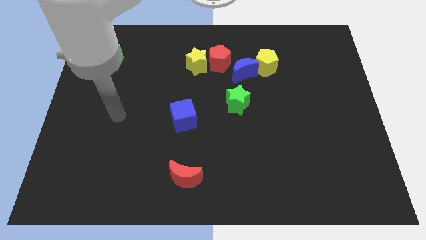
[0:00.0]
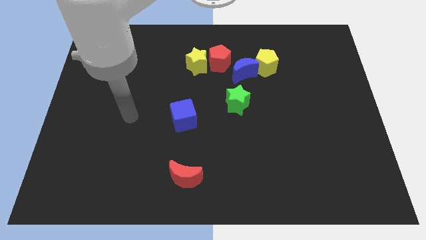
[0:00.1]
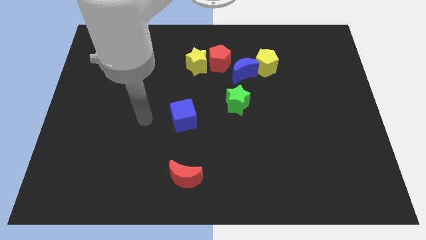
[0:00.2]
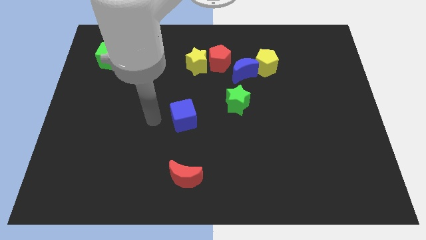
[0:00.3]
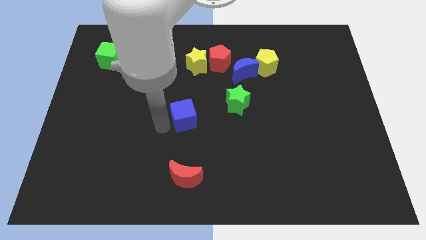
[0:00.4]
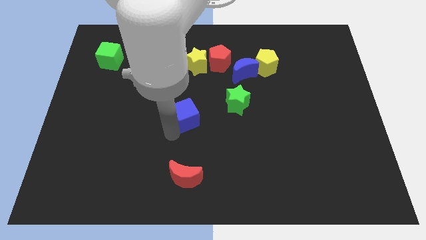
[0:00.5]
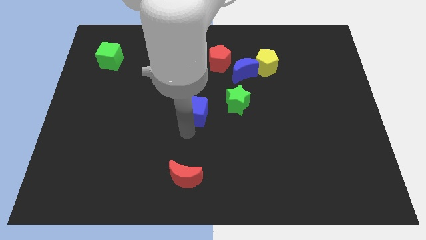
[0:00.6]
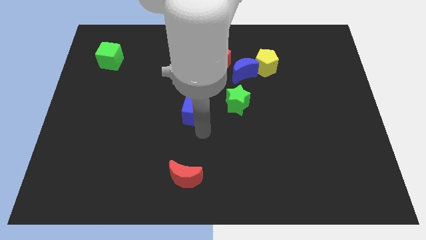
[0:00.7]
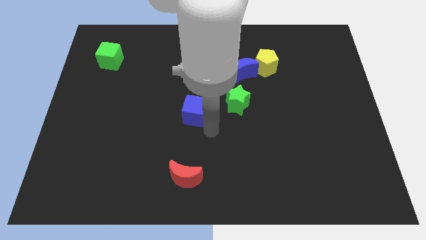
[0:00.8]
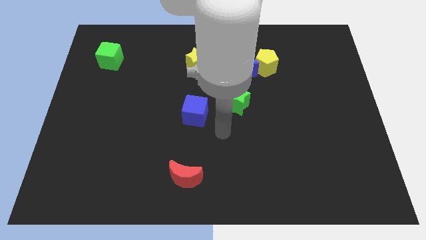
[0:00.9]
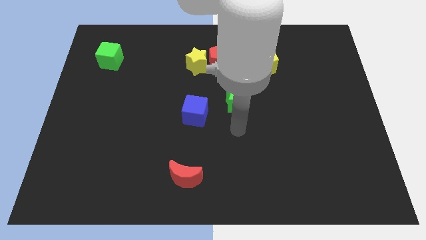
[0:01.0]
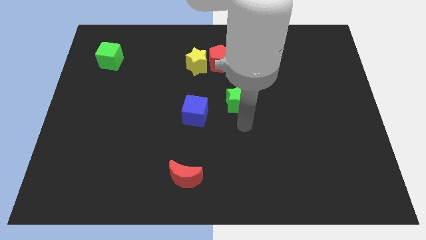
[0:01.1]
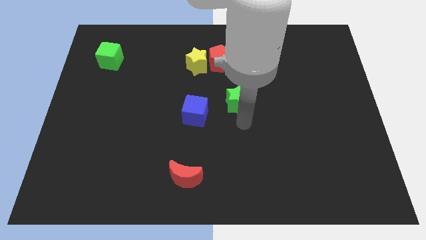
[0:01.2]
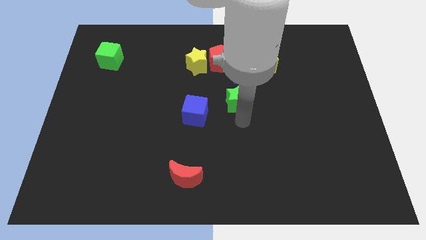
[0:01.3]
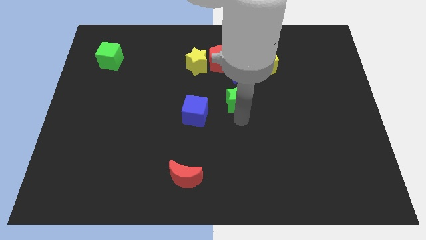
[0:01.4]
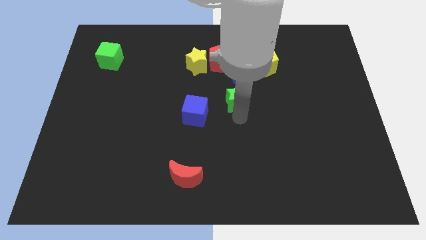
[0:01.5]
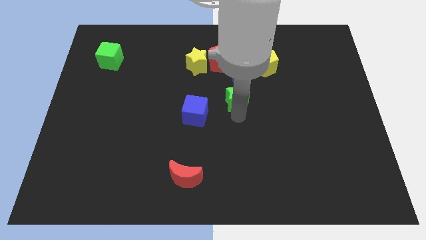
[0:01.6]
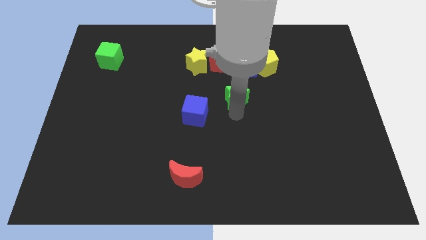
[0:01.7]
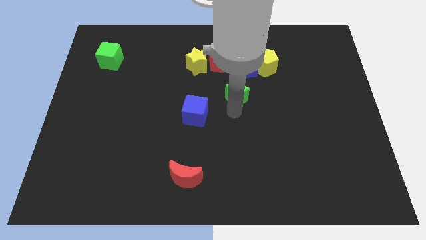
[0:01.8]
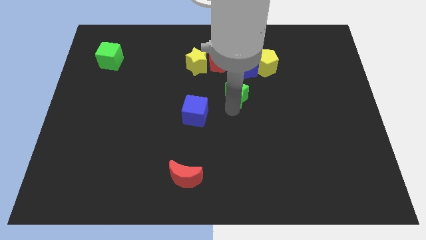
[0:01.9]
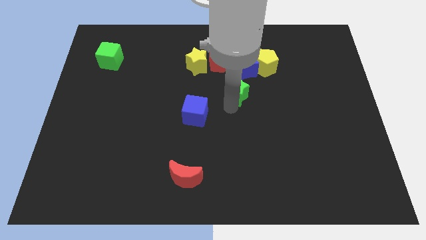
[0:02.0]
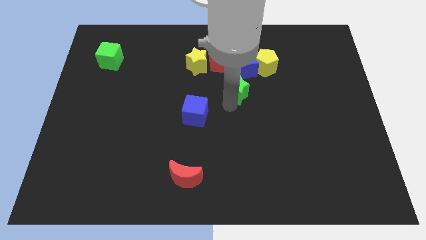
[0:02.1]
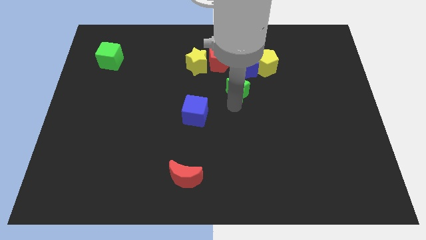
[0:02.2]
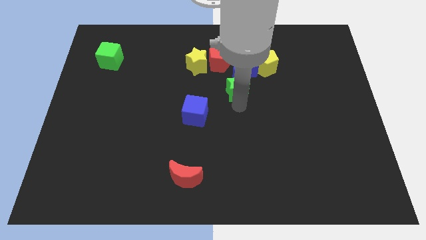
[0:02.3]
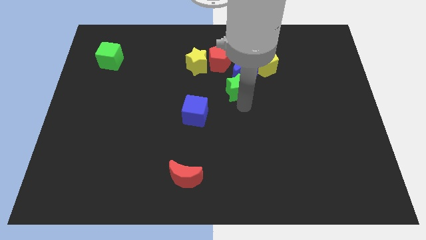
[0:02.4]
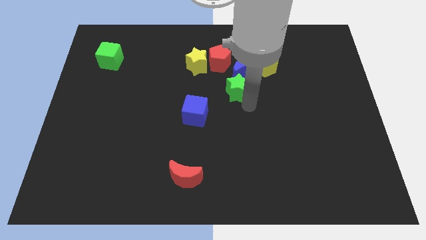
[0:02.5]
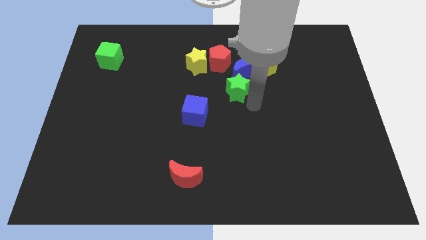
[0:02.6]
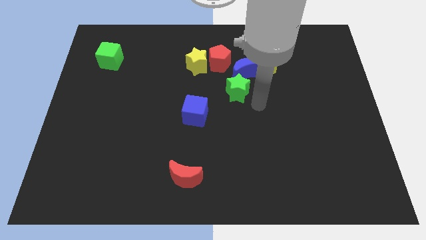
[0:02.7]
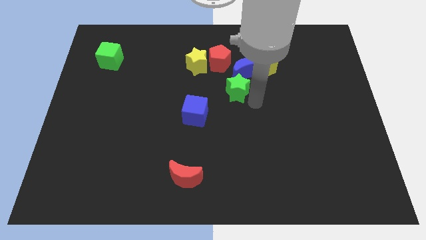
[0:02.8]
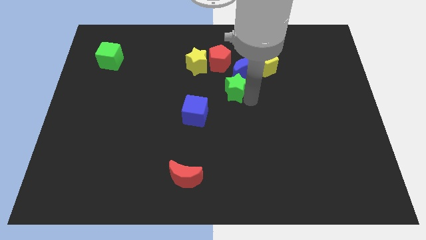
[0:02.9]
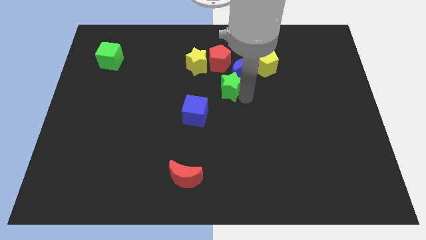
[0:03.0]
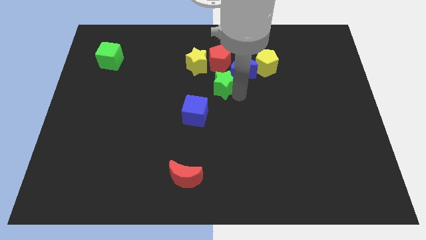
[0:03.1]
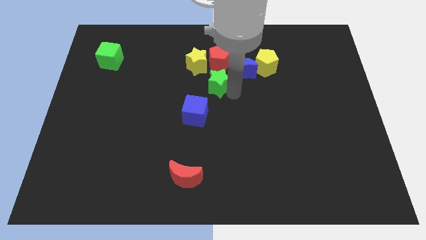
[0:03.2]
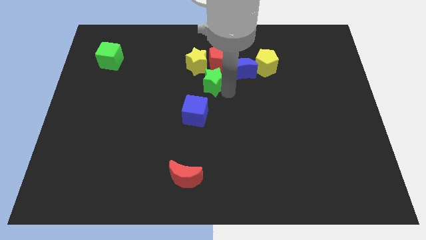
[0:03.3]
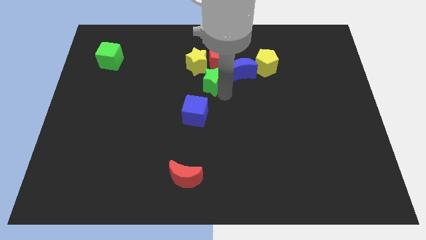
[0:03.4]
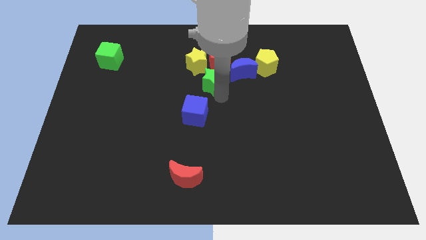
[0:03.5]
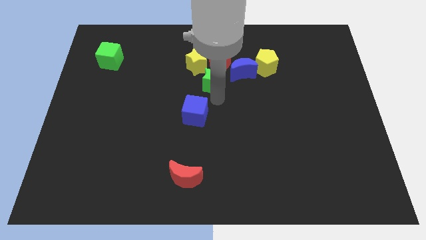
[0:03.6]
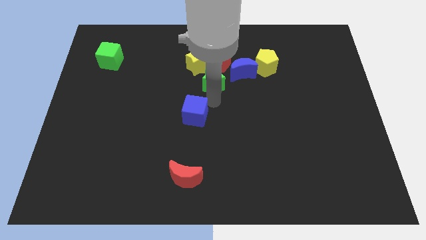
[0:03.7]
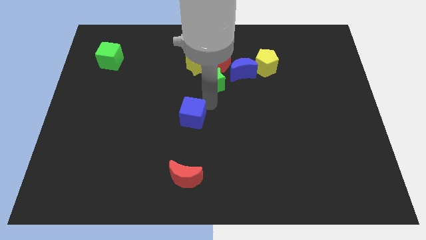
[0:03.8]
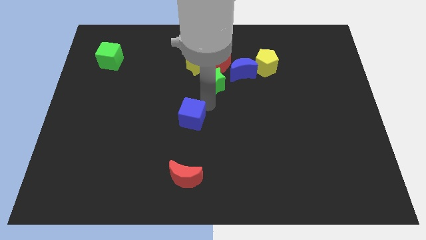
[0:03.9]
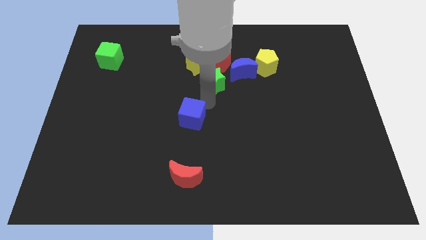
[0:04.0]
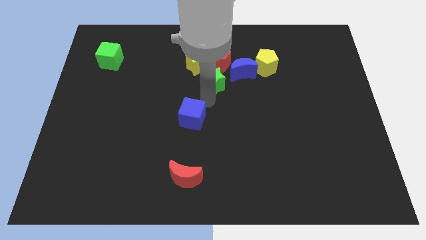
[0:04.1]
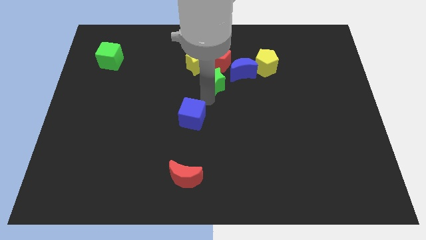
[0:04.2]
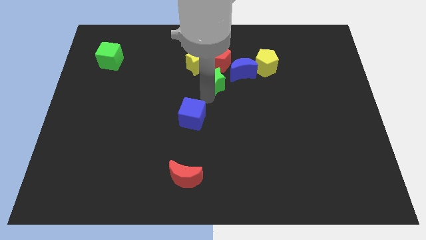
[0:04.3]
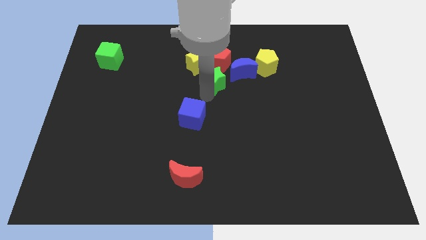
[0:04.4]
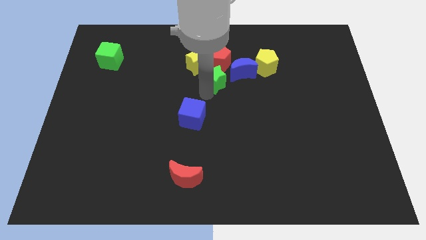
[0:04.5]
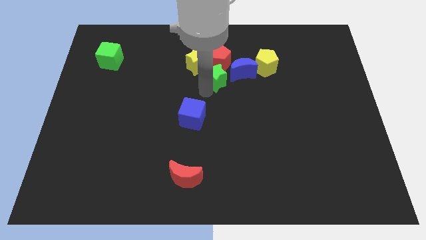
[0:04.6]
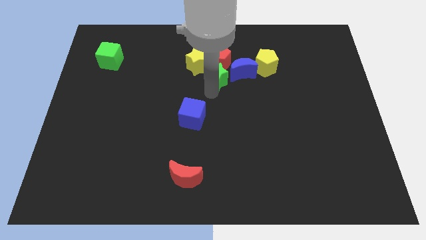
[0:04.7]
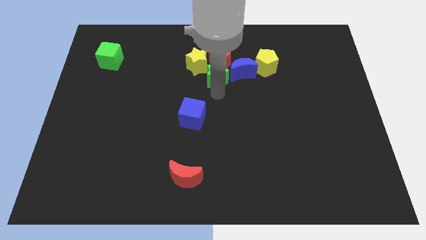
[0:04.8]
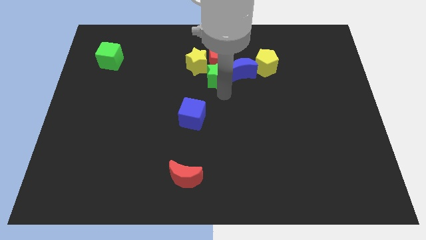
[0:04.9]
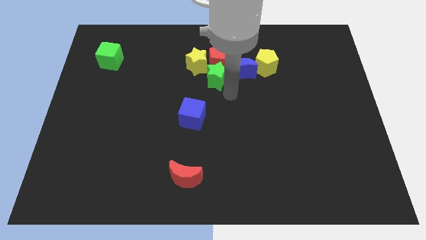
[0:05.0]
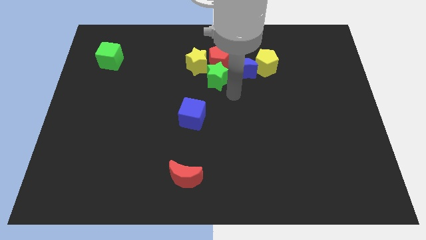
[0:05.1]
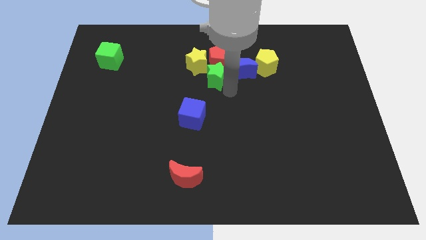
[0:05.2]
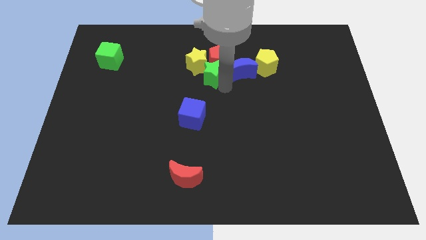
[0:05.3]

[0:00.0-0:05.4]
move the green star next to the yellow star

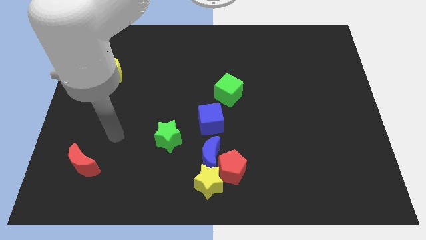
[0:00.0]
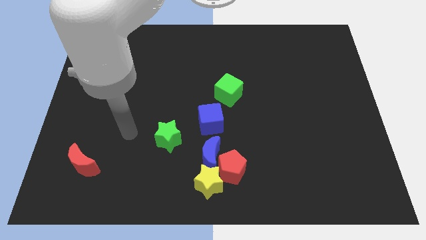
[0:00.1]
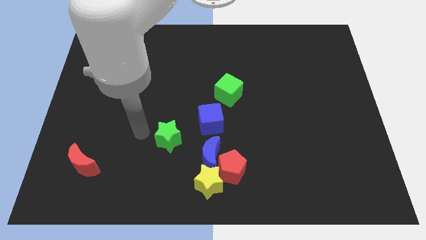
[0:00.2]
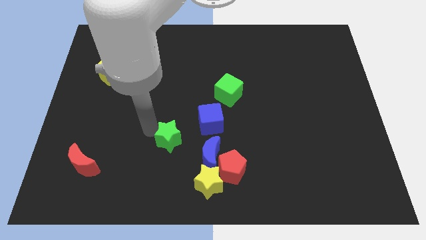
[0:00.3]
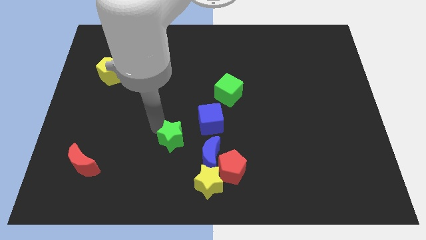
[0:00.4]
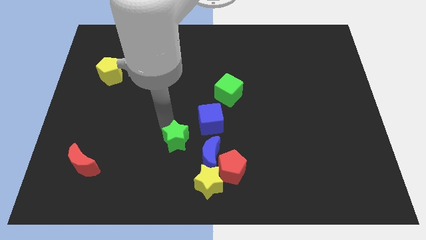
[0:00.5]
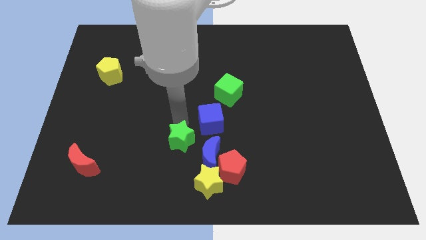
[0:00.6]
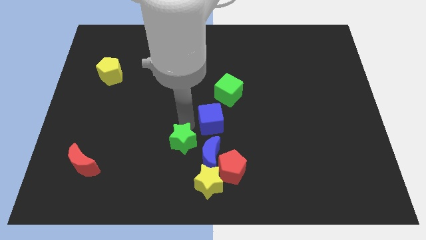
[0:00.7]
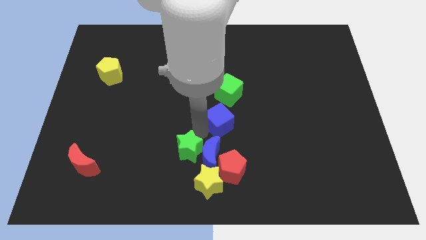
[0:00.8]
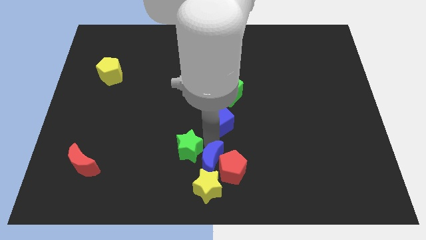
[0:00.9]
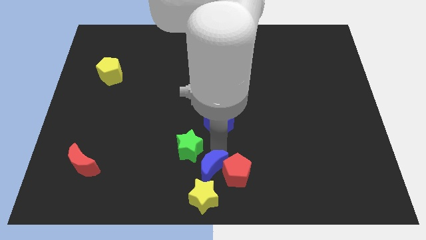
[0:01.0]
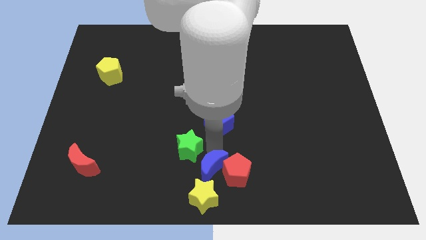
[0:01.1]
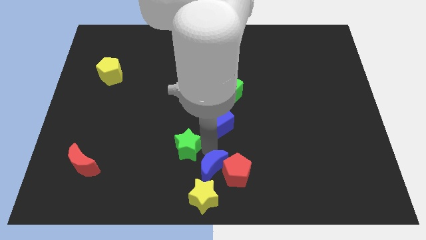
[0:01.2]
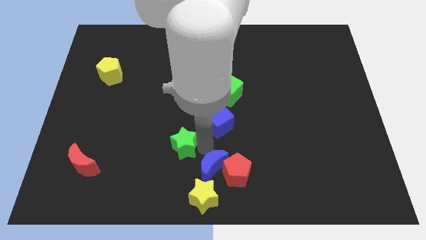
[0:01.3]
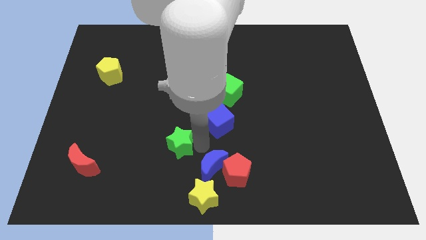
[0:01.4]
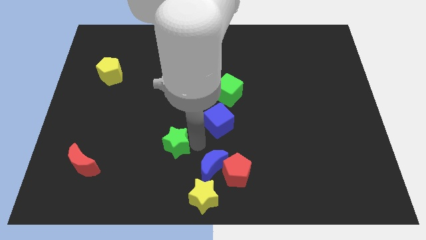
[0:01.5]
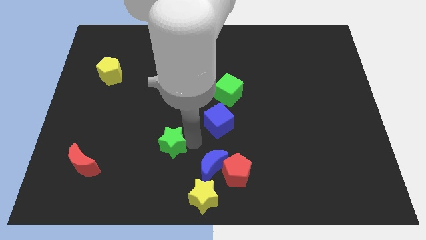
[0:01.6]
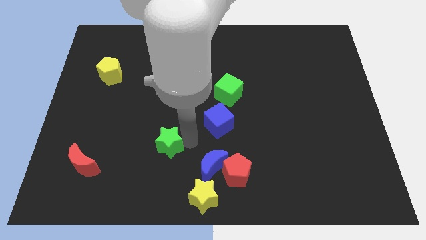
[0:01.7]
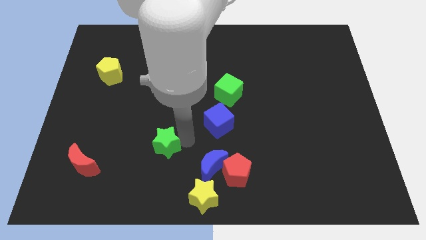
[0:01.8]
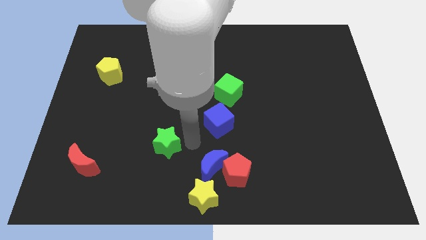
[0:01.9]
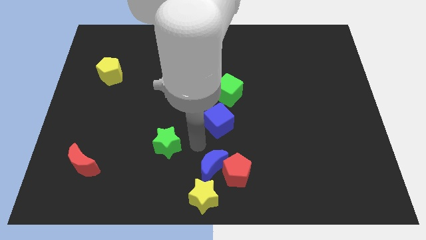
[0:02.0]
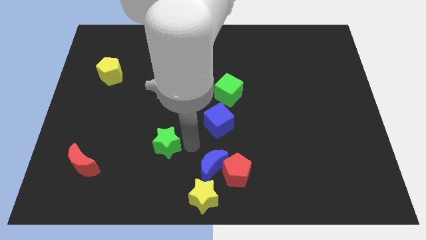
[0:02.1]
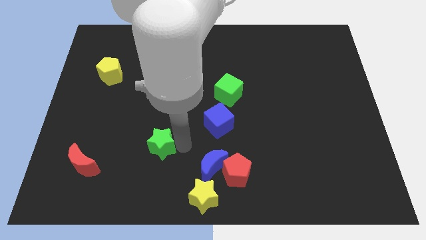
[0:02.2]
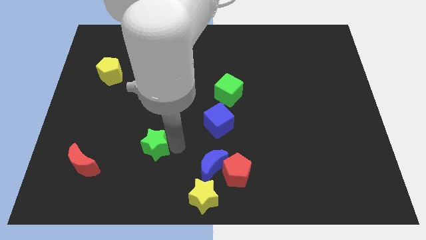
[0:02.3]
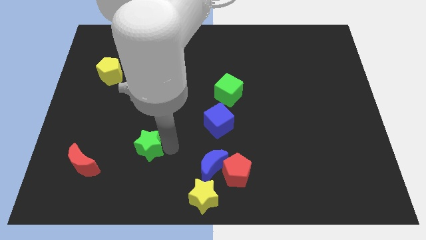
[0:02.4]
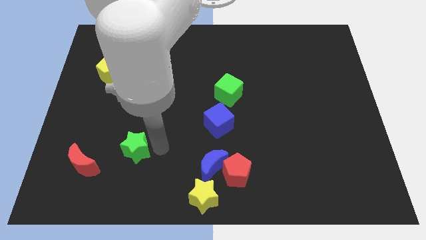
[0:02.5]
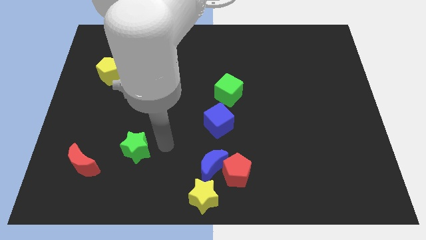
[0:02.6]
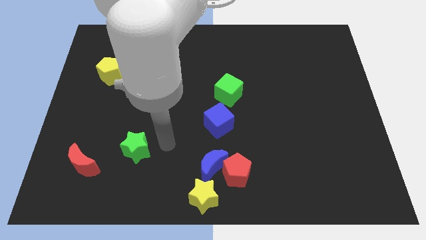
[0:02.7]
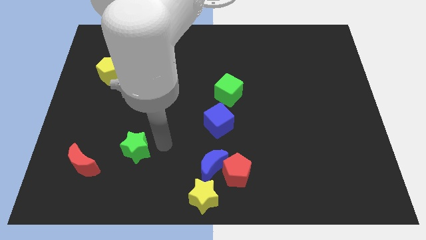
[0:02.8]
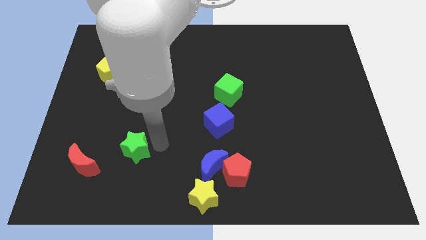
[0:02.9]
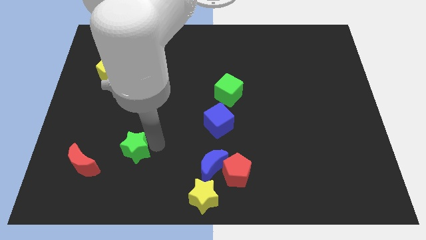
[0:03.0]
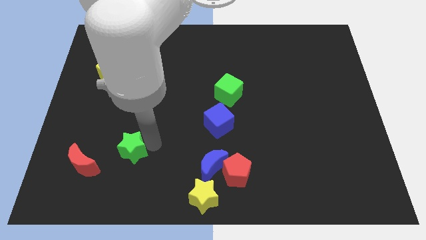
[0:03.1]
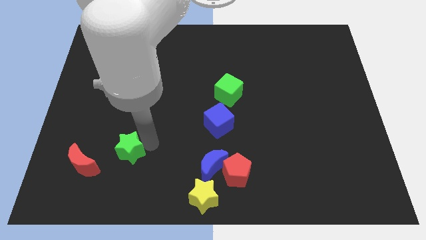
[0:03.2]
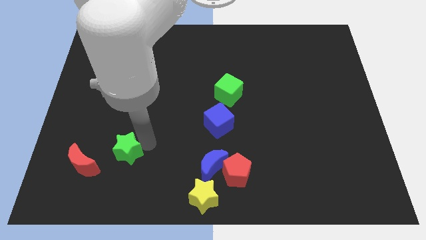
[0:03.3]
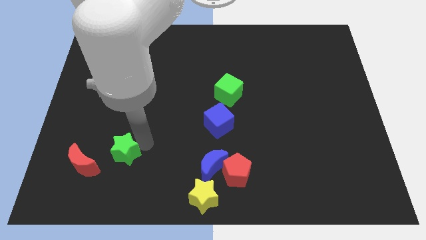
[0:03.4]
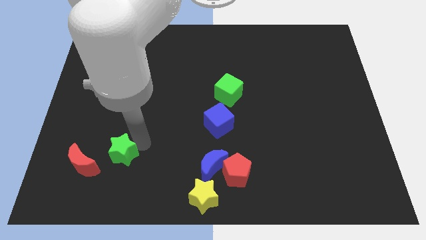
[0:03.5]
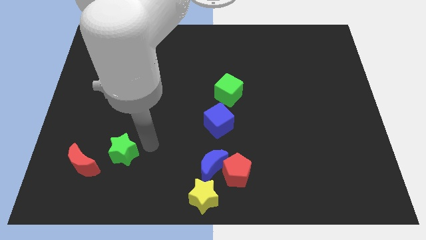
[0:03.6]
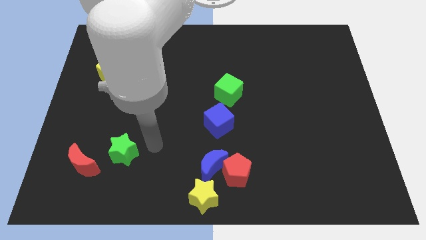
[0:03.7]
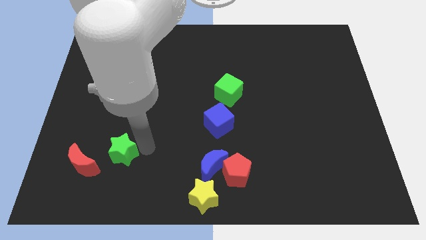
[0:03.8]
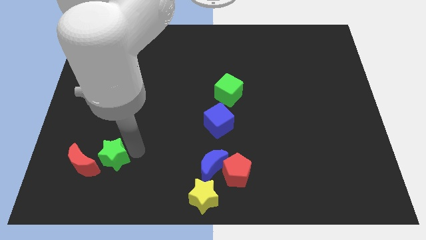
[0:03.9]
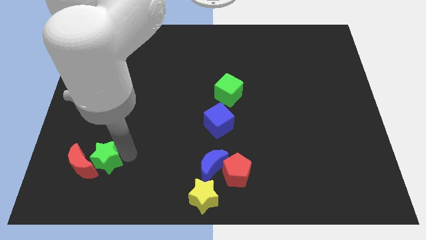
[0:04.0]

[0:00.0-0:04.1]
put the green star next to the red moon
